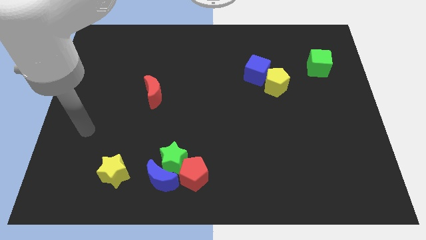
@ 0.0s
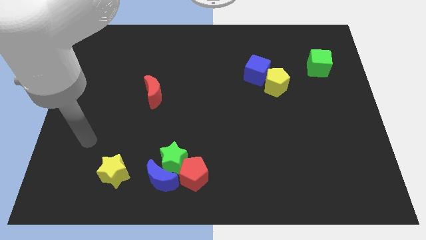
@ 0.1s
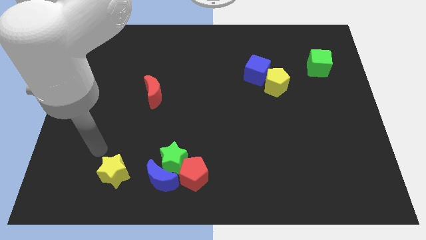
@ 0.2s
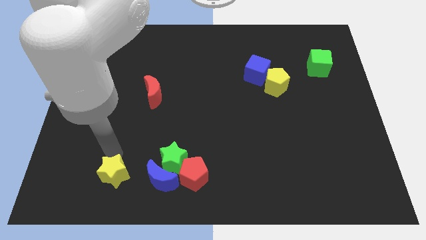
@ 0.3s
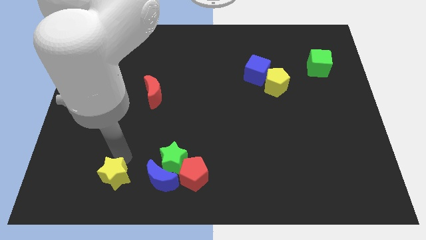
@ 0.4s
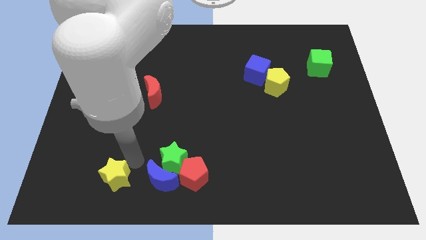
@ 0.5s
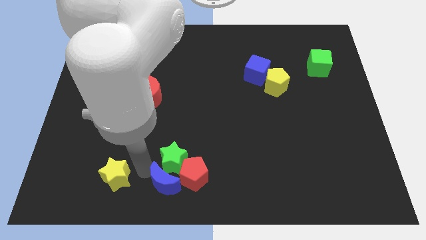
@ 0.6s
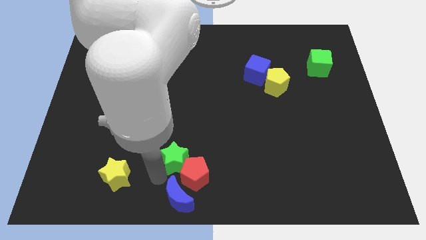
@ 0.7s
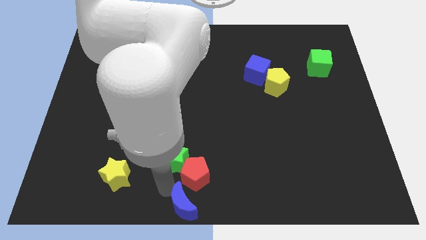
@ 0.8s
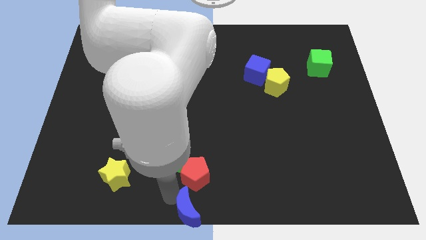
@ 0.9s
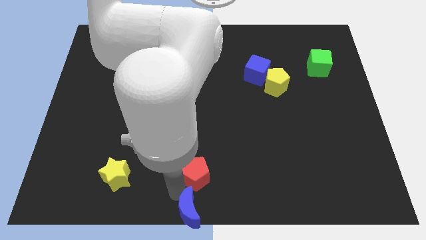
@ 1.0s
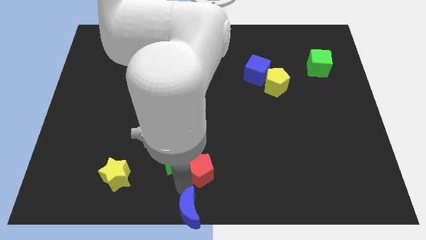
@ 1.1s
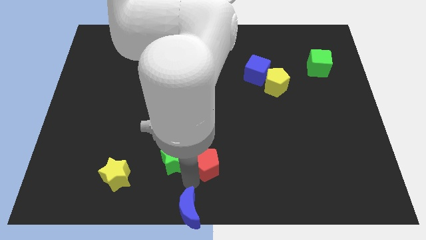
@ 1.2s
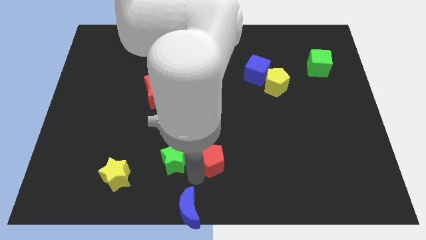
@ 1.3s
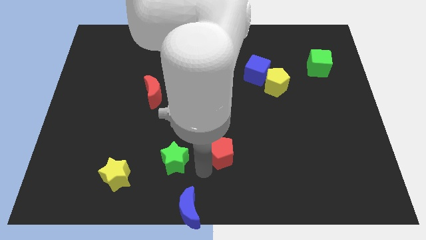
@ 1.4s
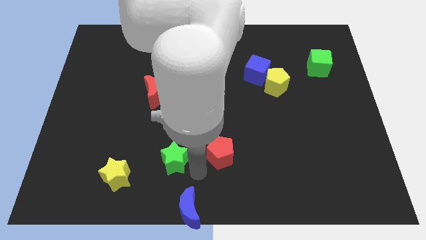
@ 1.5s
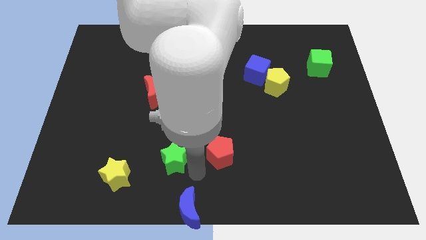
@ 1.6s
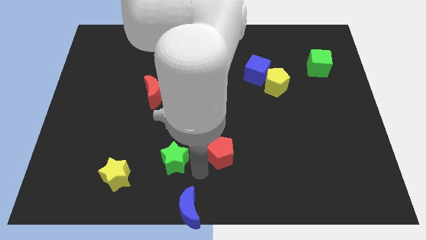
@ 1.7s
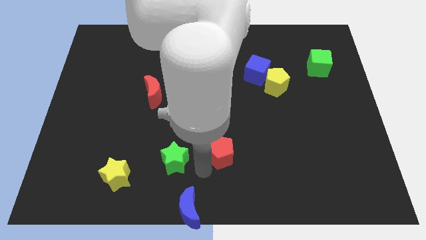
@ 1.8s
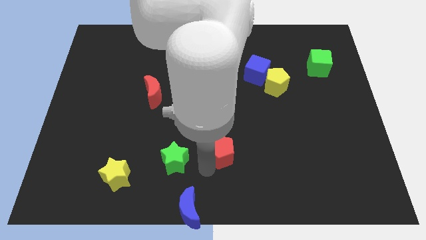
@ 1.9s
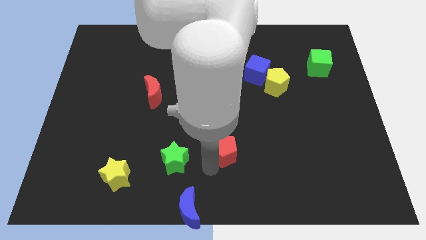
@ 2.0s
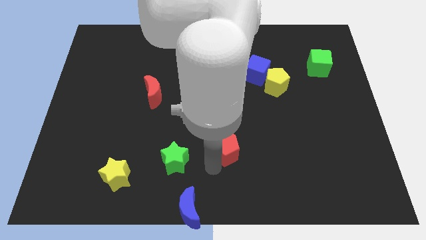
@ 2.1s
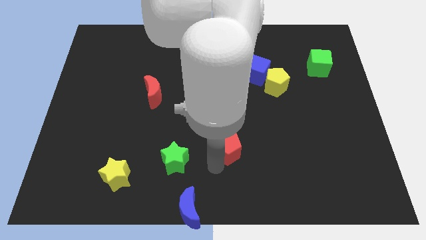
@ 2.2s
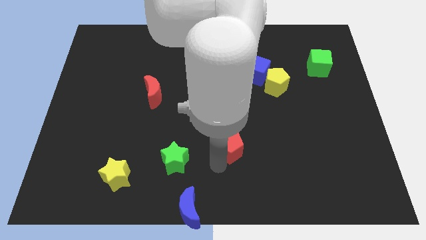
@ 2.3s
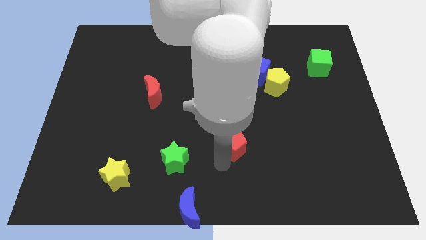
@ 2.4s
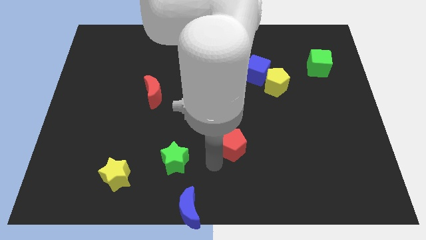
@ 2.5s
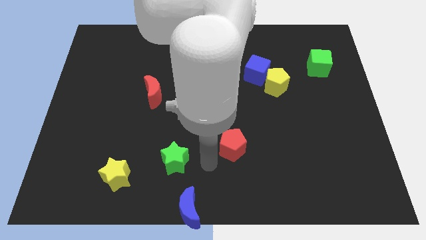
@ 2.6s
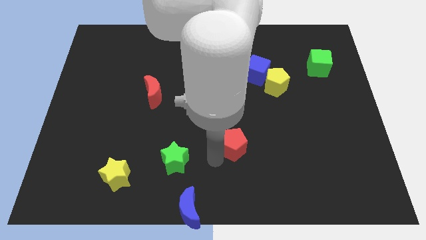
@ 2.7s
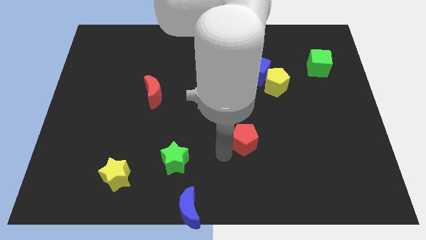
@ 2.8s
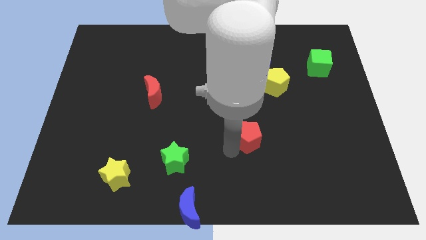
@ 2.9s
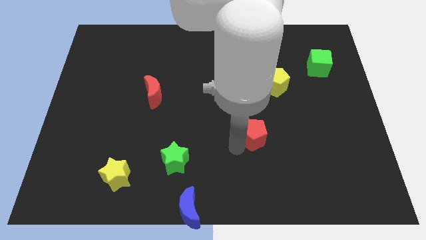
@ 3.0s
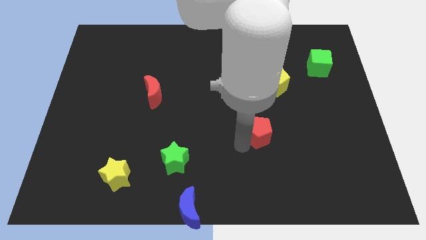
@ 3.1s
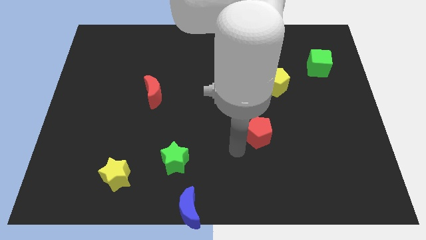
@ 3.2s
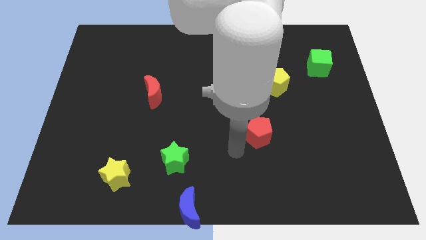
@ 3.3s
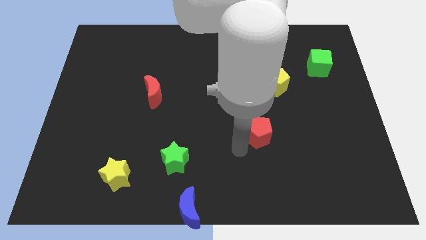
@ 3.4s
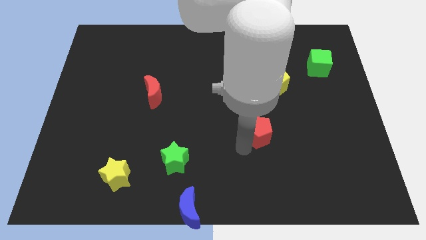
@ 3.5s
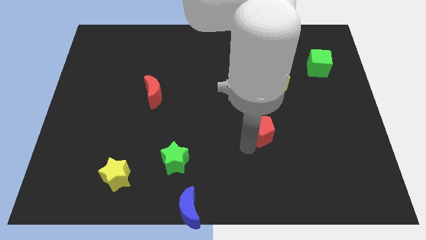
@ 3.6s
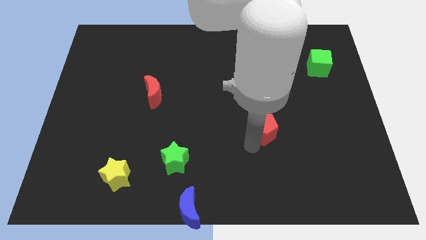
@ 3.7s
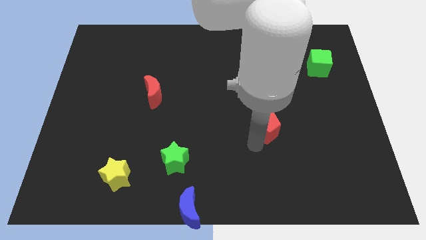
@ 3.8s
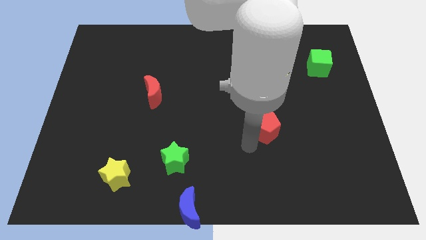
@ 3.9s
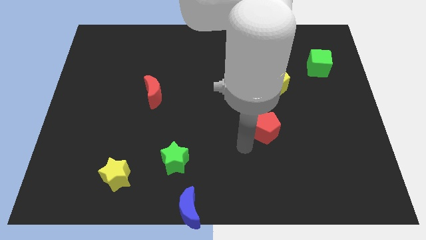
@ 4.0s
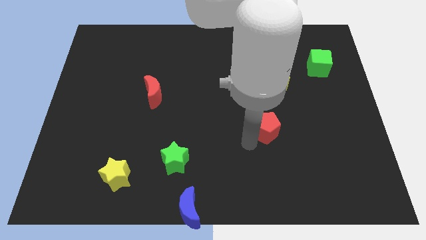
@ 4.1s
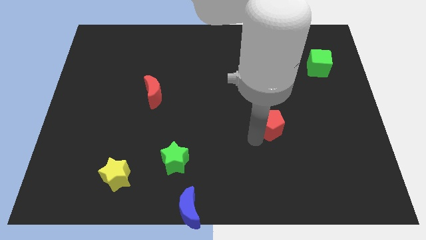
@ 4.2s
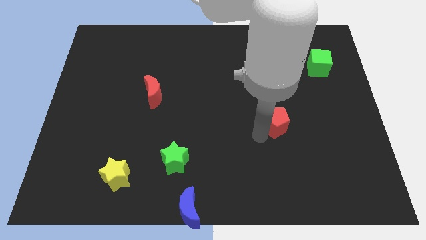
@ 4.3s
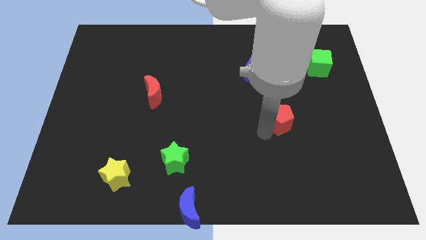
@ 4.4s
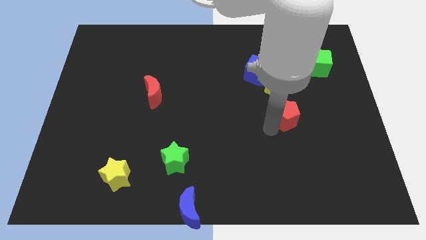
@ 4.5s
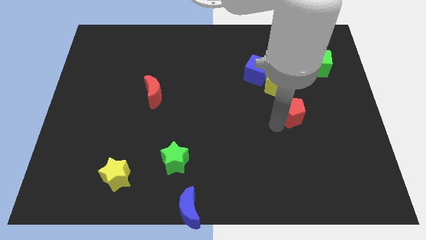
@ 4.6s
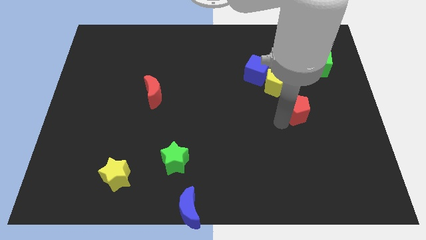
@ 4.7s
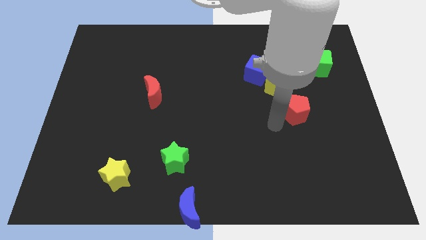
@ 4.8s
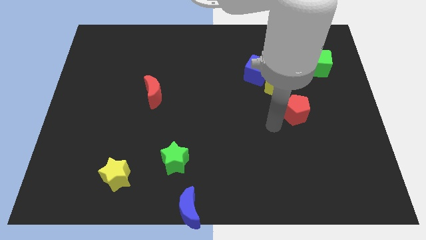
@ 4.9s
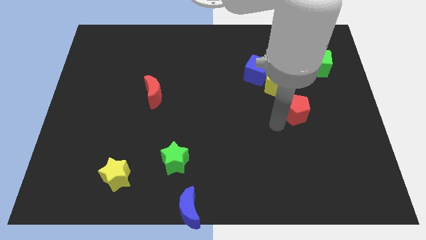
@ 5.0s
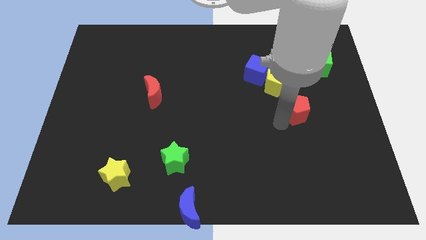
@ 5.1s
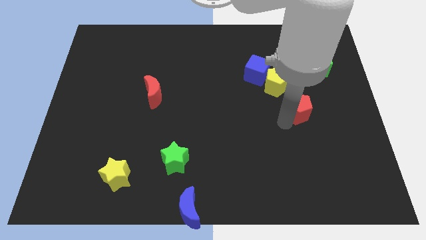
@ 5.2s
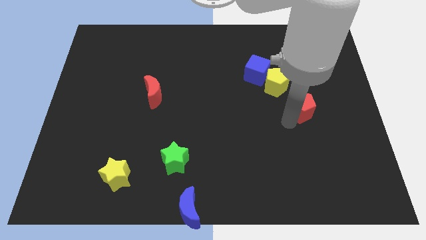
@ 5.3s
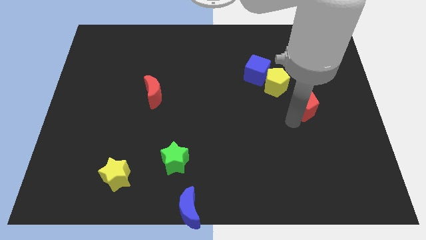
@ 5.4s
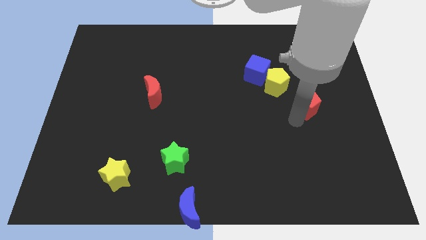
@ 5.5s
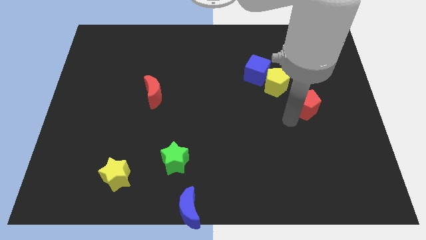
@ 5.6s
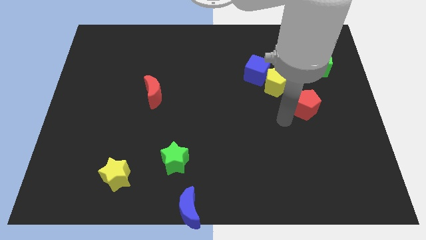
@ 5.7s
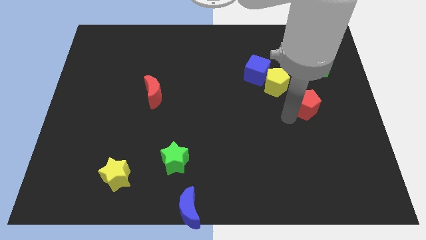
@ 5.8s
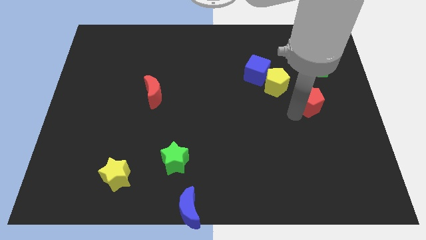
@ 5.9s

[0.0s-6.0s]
push the red pentagon below the green cube

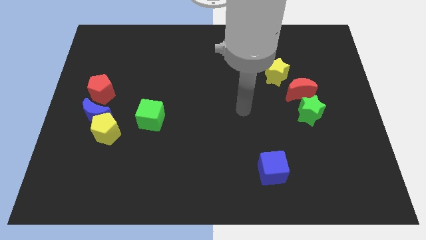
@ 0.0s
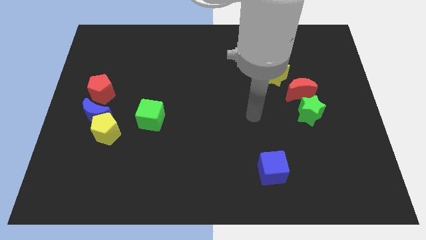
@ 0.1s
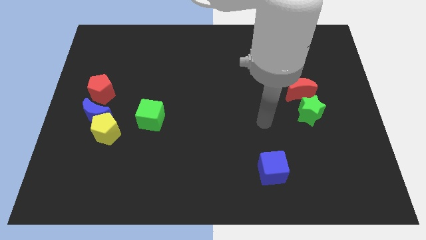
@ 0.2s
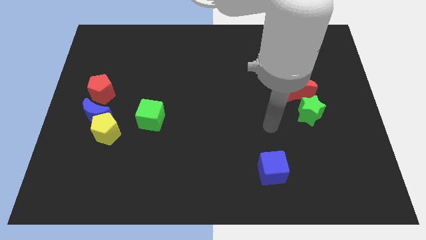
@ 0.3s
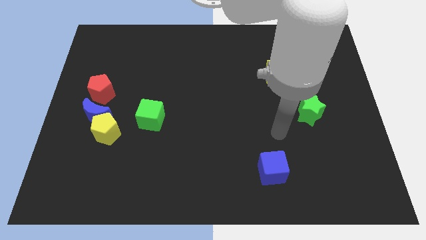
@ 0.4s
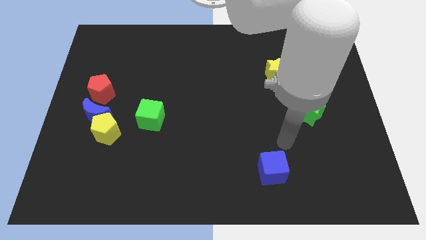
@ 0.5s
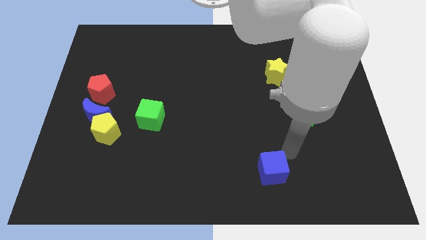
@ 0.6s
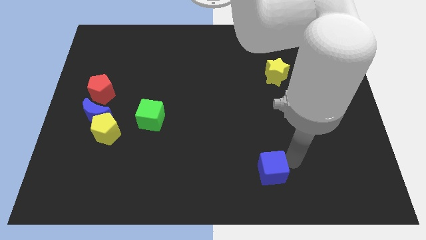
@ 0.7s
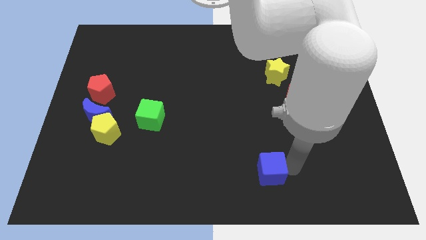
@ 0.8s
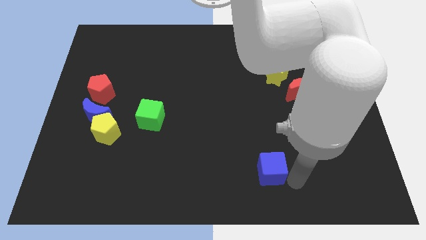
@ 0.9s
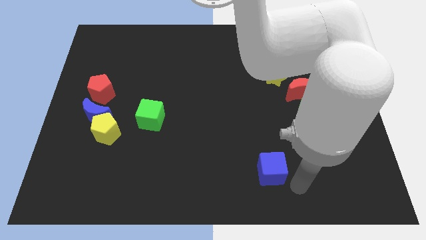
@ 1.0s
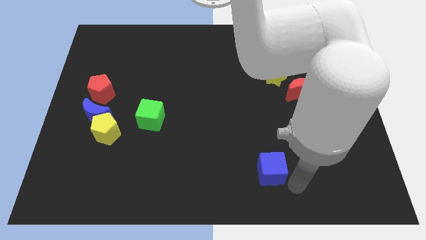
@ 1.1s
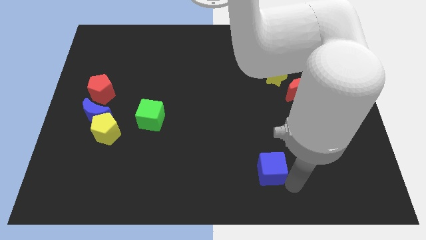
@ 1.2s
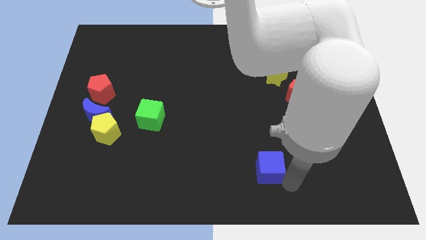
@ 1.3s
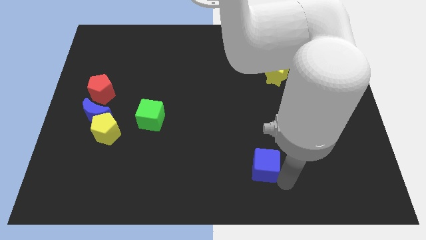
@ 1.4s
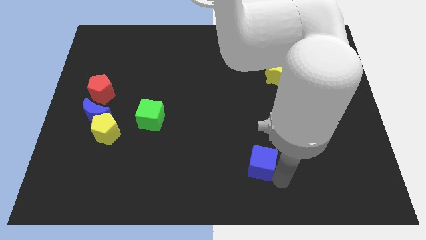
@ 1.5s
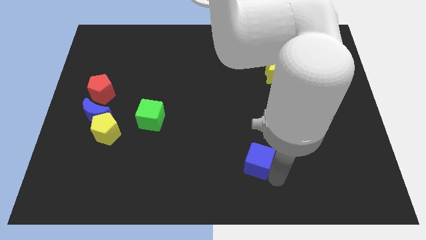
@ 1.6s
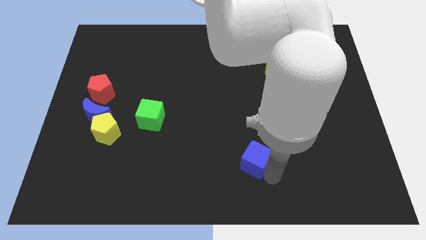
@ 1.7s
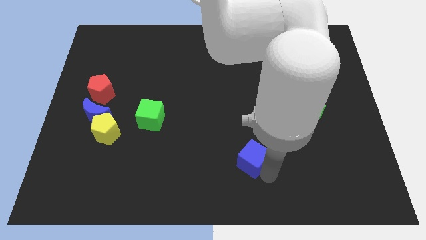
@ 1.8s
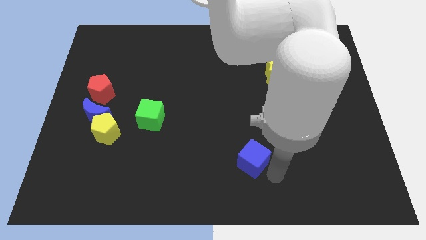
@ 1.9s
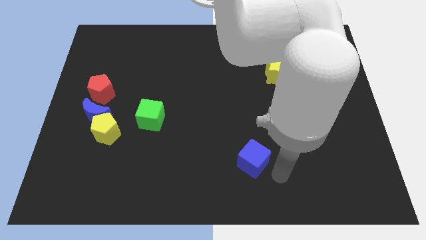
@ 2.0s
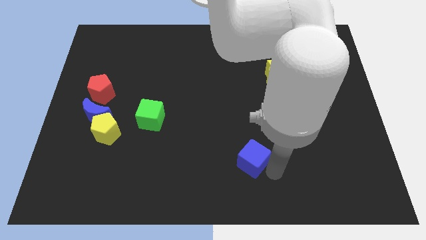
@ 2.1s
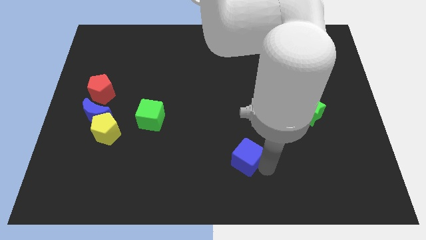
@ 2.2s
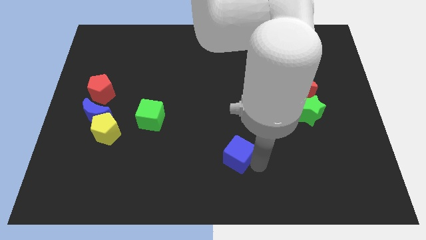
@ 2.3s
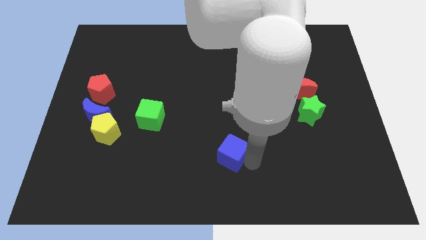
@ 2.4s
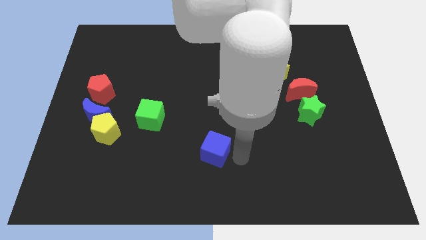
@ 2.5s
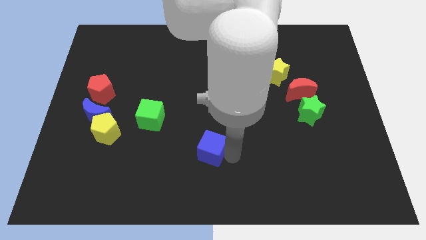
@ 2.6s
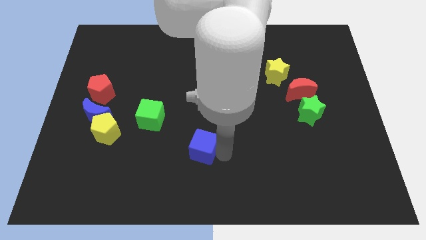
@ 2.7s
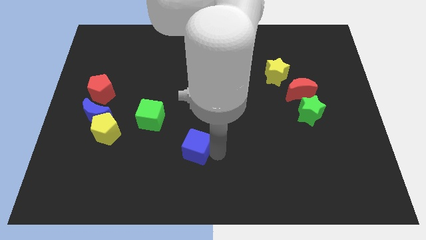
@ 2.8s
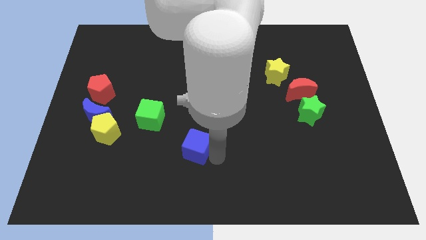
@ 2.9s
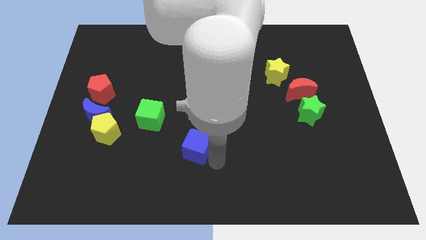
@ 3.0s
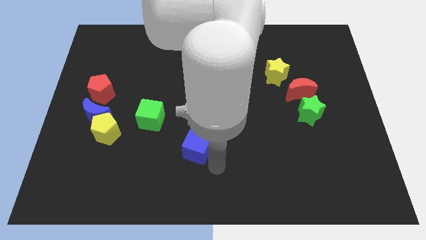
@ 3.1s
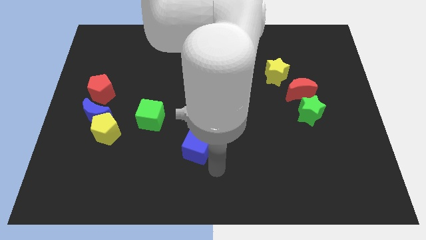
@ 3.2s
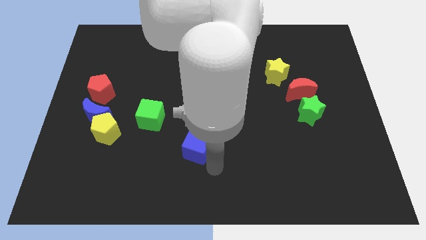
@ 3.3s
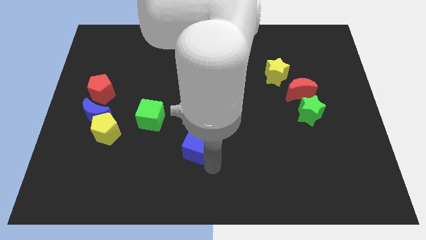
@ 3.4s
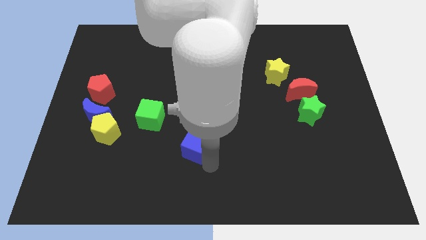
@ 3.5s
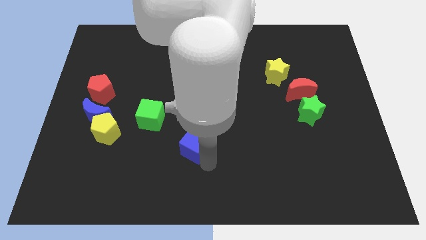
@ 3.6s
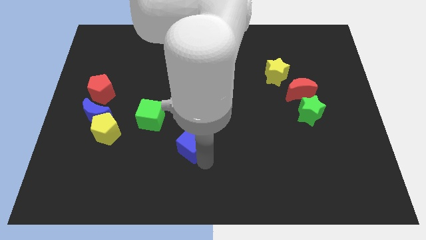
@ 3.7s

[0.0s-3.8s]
move the blue cube diagonally down and to the right of the green cube
